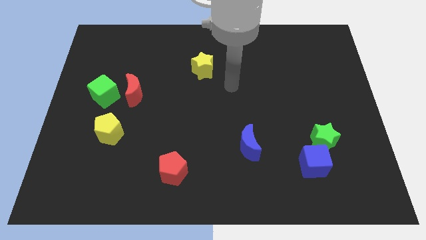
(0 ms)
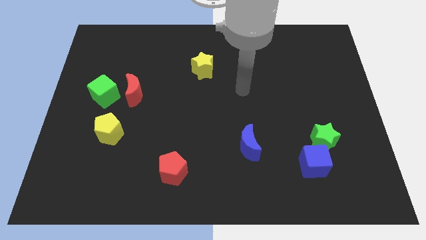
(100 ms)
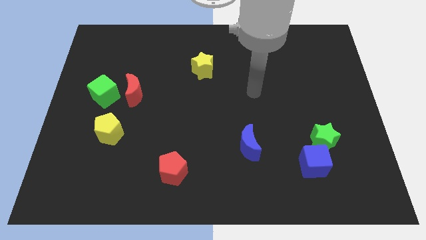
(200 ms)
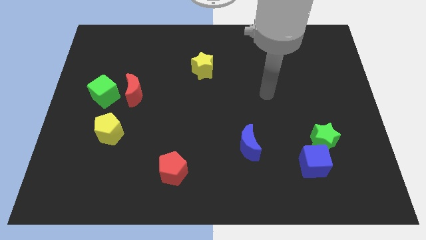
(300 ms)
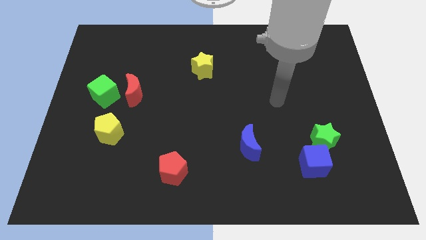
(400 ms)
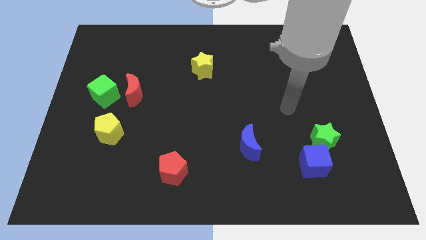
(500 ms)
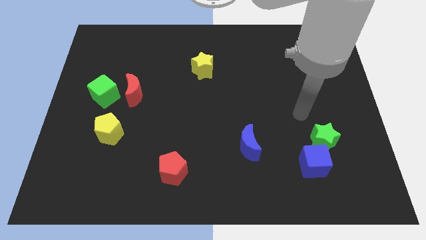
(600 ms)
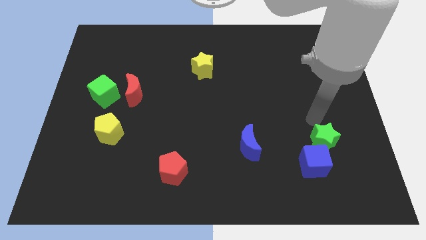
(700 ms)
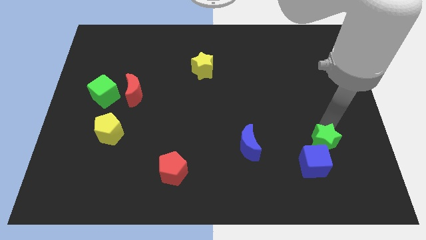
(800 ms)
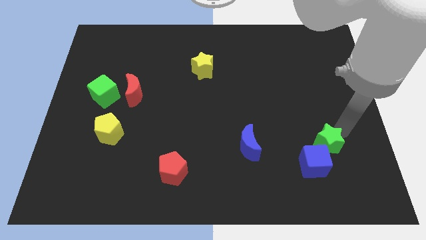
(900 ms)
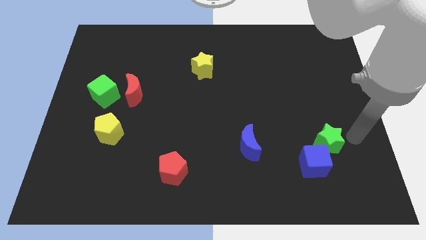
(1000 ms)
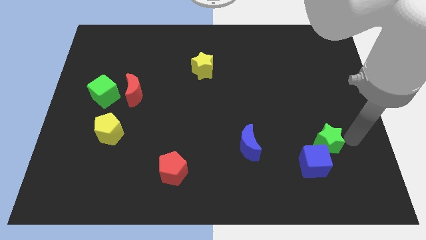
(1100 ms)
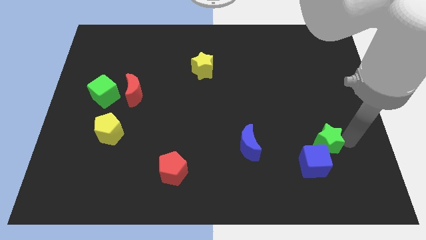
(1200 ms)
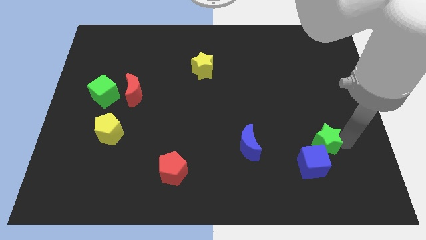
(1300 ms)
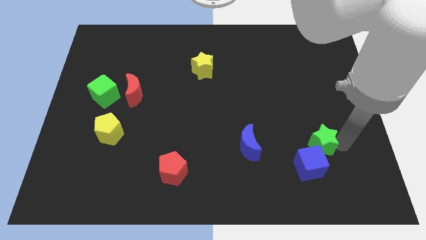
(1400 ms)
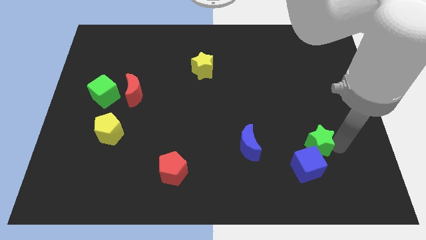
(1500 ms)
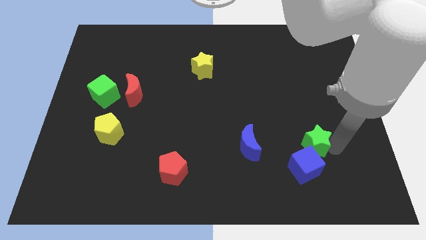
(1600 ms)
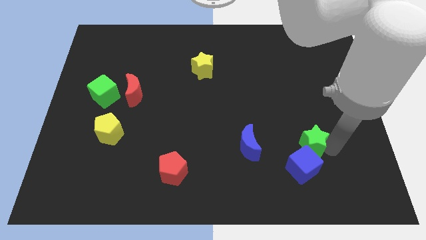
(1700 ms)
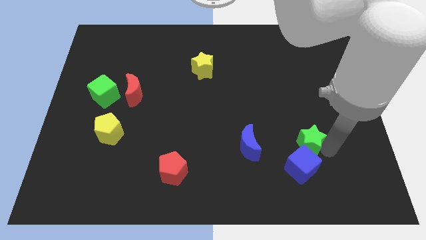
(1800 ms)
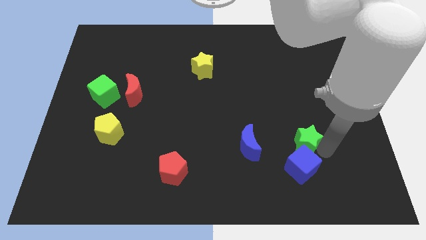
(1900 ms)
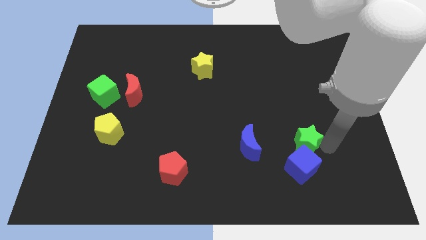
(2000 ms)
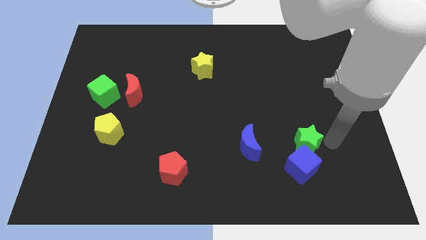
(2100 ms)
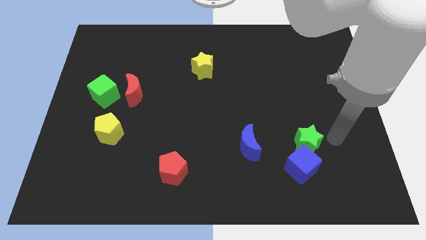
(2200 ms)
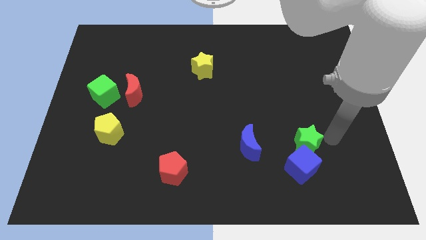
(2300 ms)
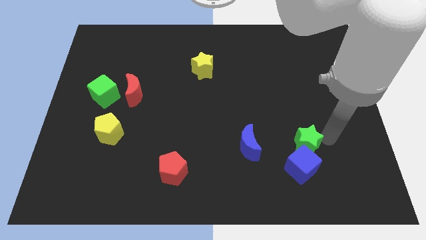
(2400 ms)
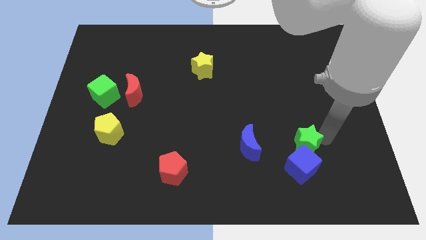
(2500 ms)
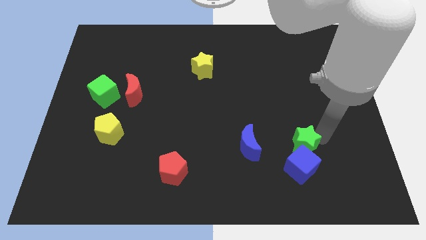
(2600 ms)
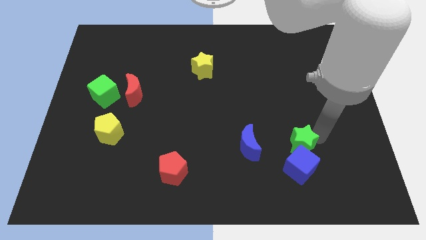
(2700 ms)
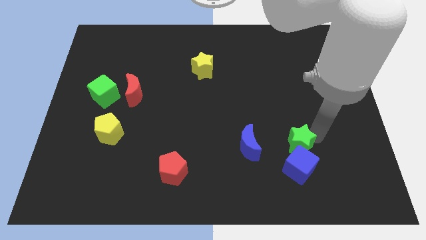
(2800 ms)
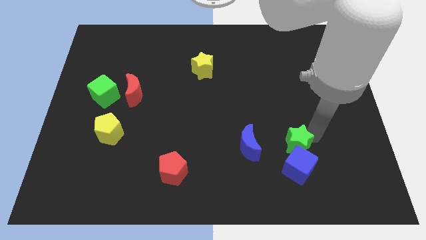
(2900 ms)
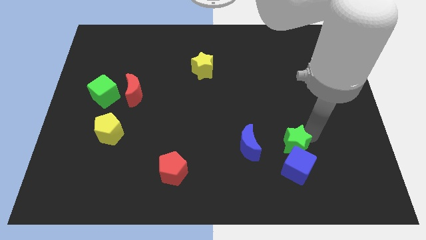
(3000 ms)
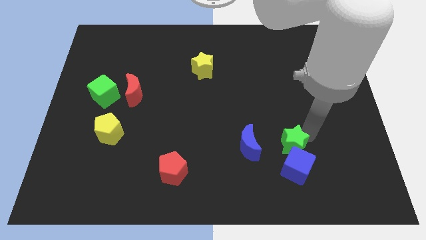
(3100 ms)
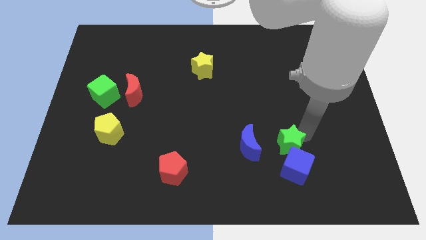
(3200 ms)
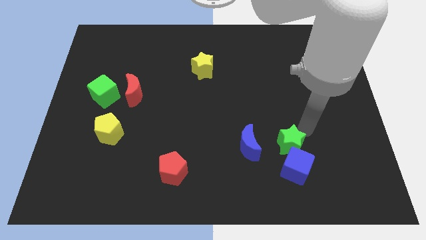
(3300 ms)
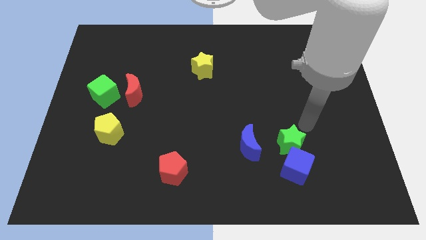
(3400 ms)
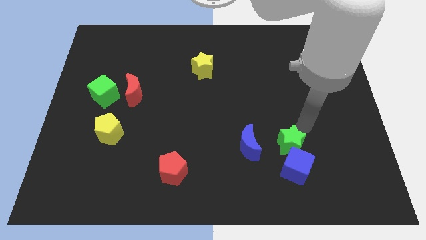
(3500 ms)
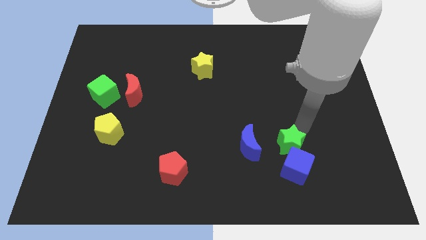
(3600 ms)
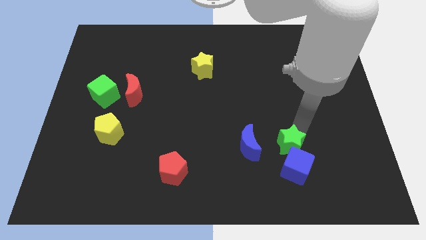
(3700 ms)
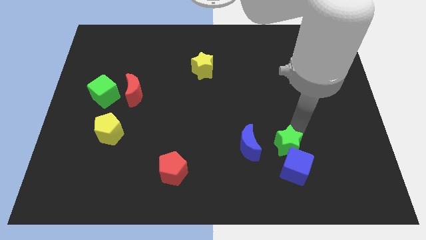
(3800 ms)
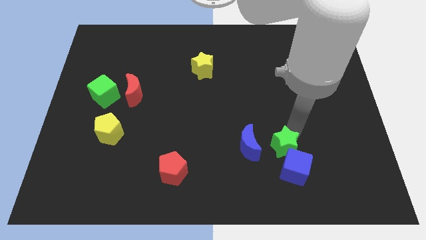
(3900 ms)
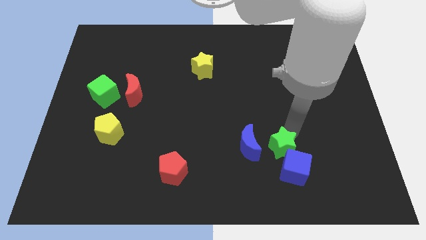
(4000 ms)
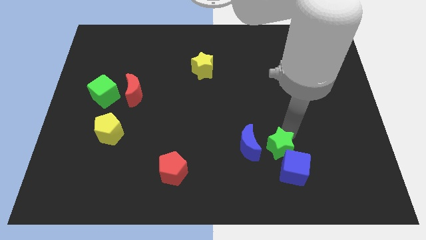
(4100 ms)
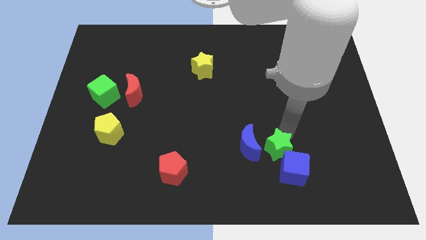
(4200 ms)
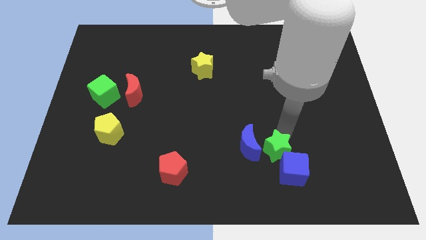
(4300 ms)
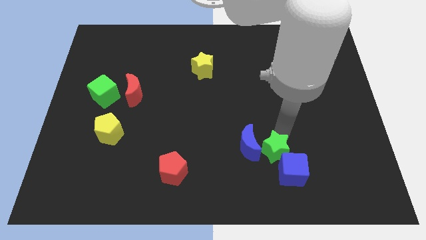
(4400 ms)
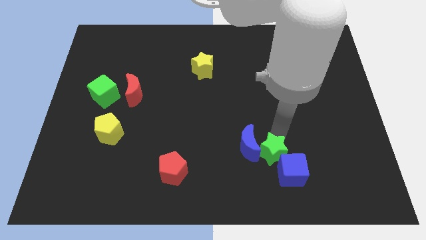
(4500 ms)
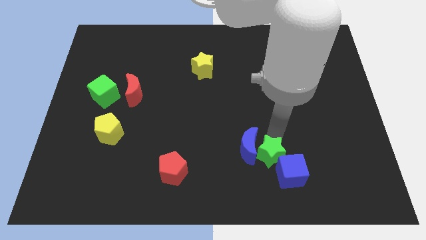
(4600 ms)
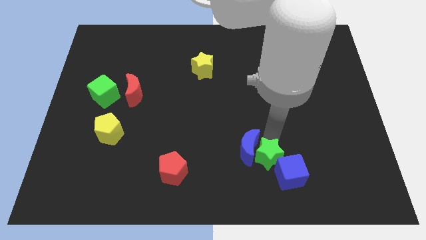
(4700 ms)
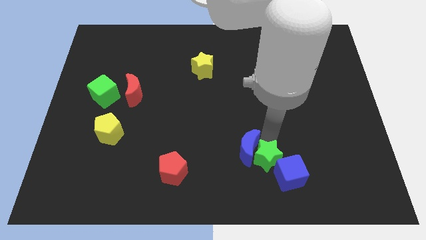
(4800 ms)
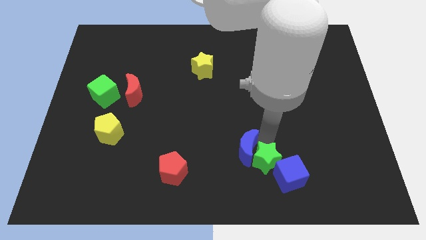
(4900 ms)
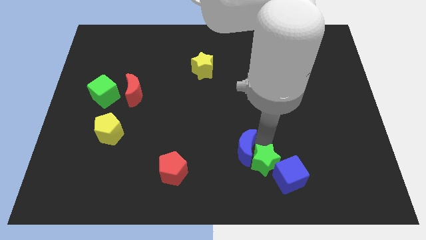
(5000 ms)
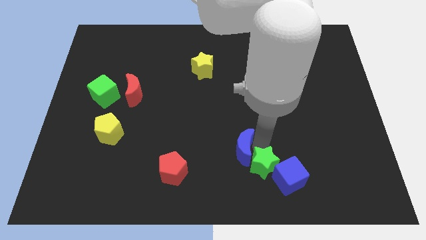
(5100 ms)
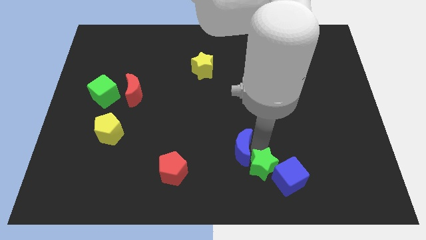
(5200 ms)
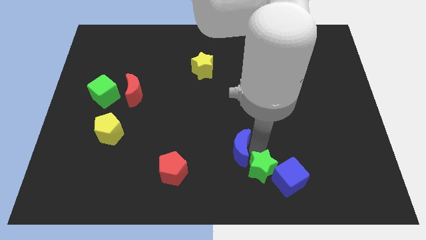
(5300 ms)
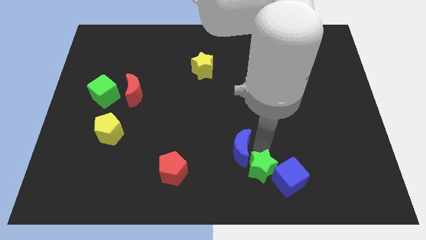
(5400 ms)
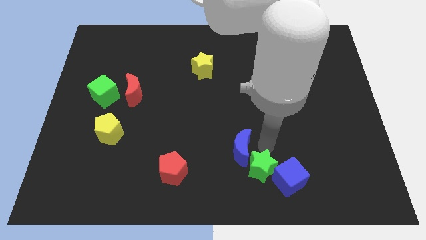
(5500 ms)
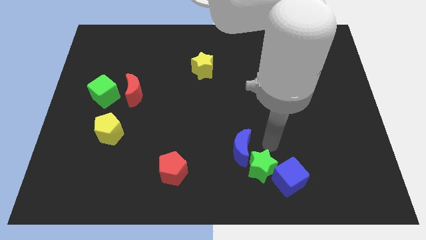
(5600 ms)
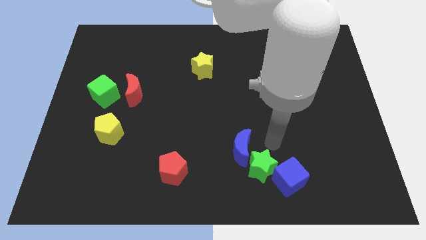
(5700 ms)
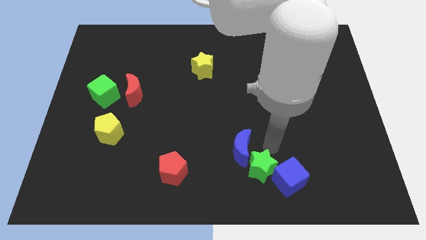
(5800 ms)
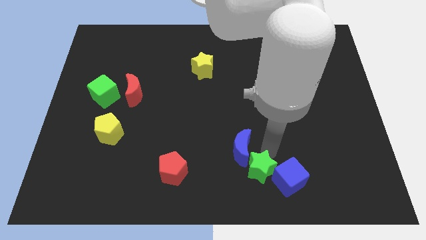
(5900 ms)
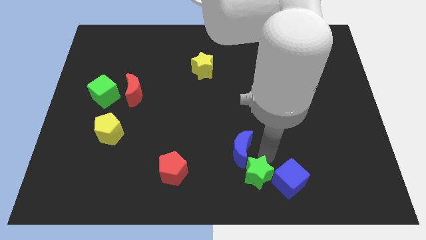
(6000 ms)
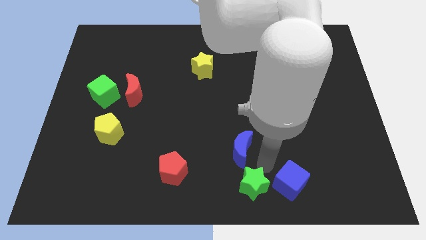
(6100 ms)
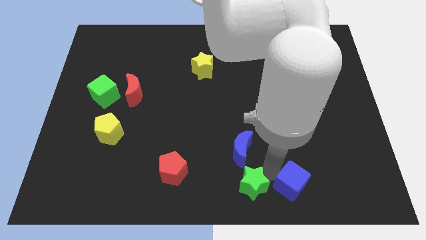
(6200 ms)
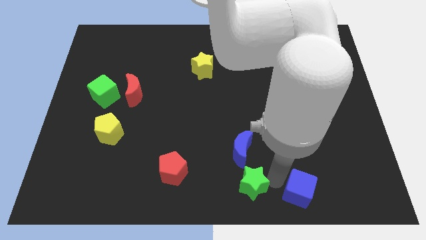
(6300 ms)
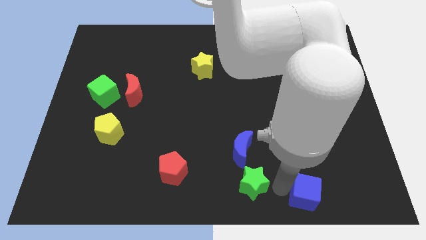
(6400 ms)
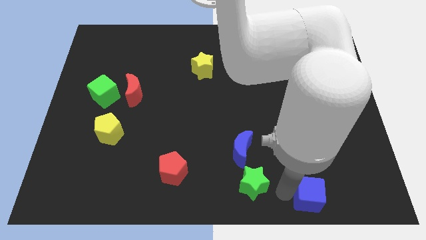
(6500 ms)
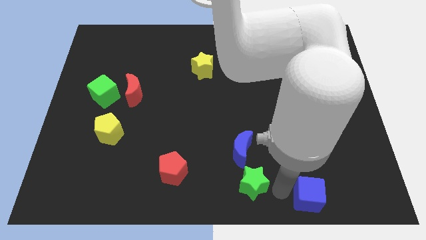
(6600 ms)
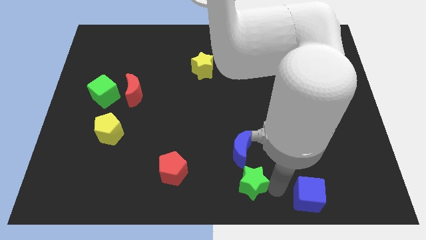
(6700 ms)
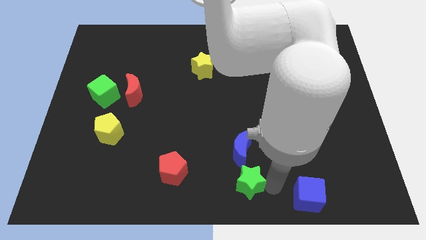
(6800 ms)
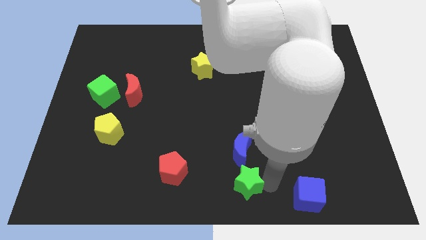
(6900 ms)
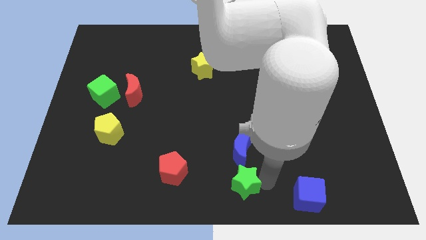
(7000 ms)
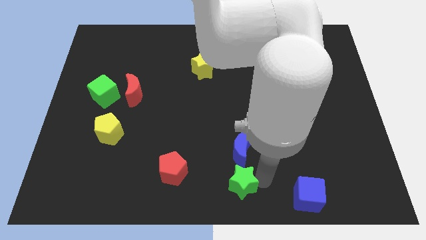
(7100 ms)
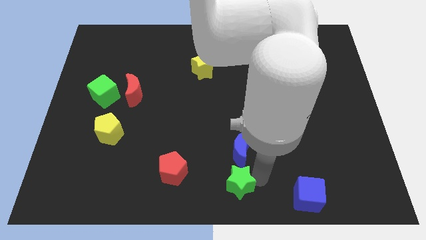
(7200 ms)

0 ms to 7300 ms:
slide the green star to the bottom left side of the blue moon
